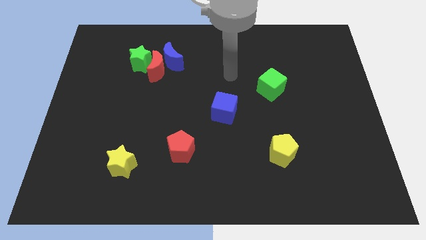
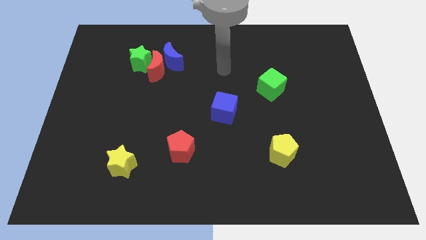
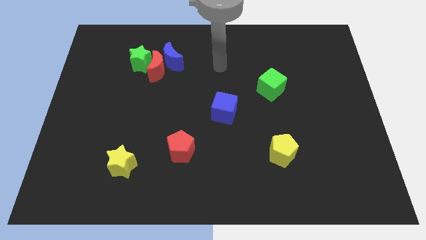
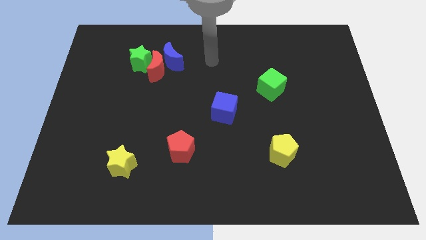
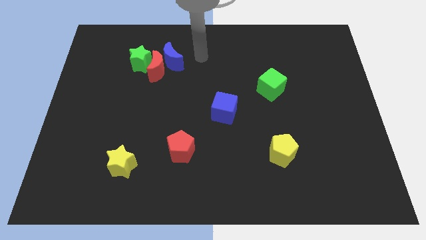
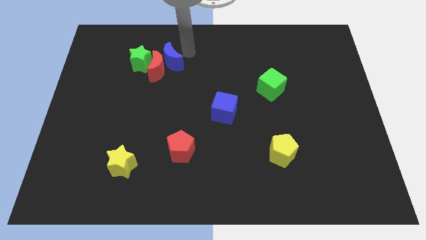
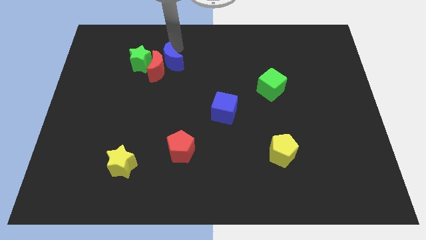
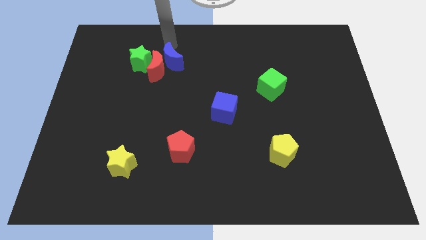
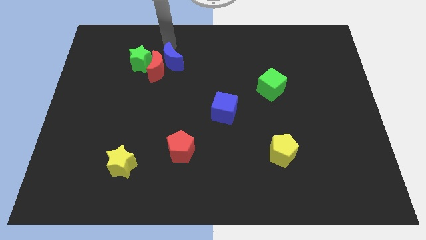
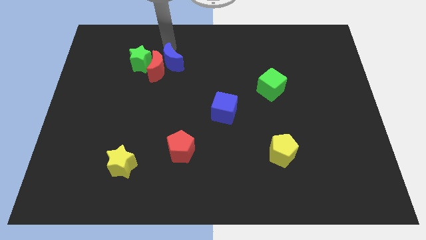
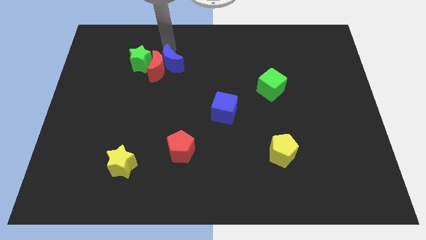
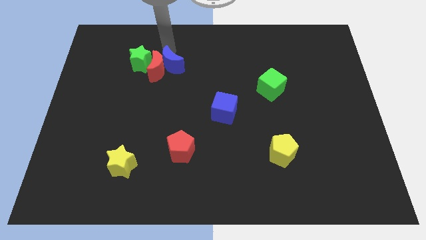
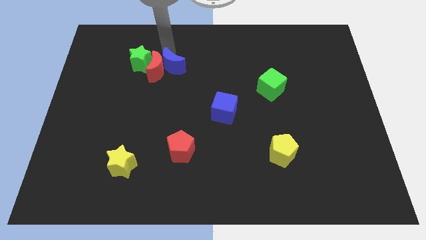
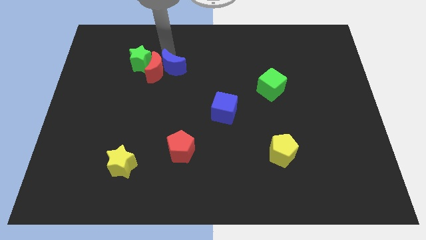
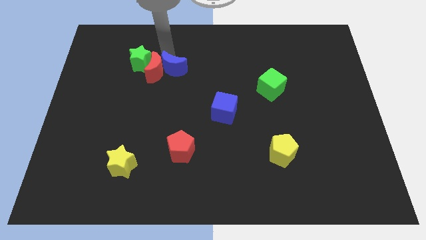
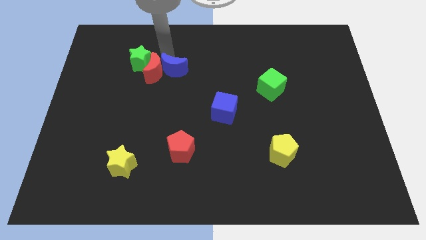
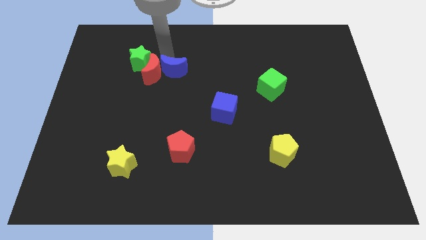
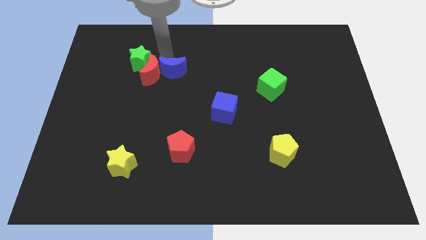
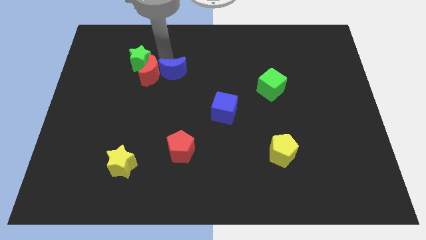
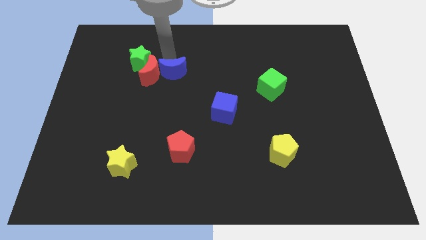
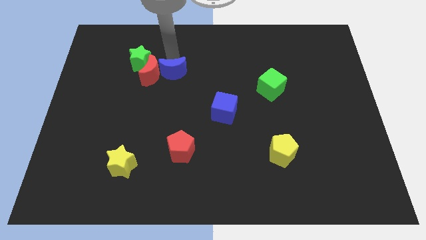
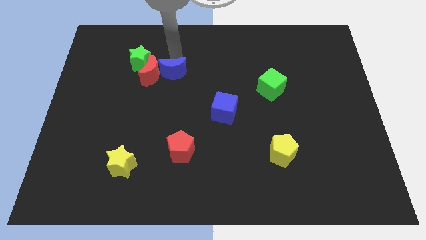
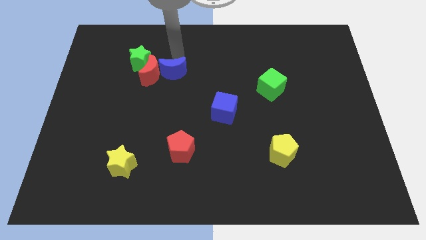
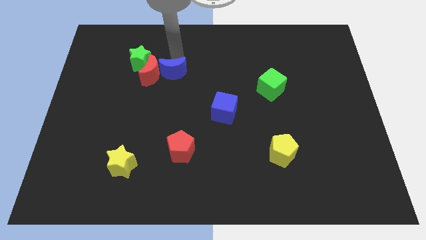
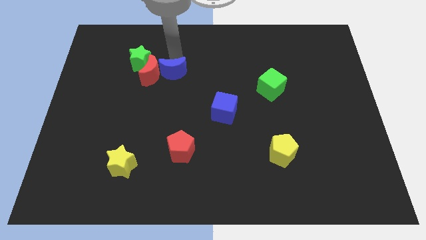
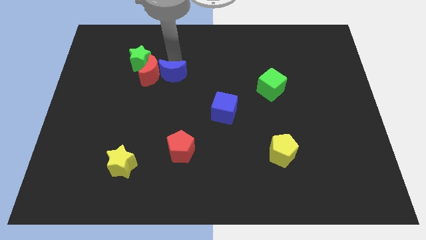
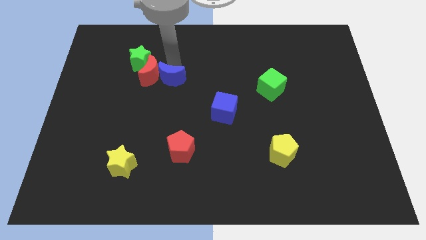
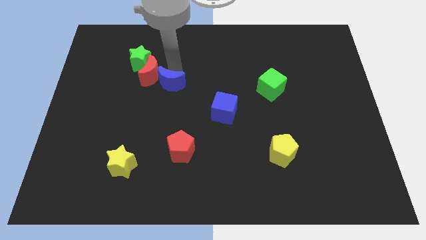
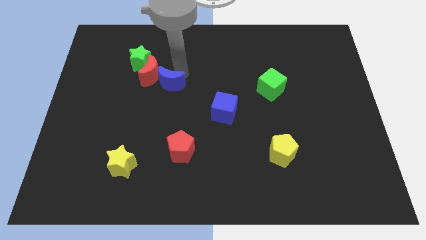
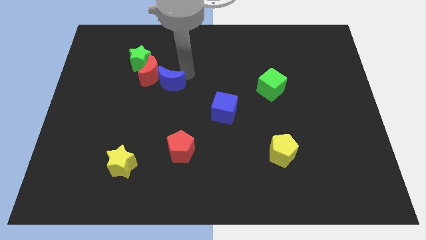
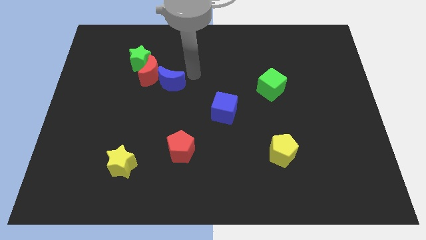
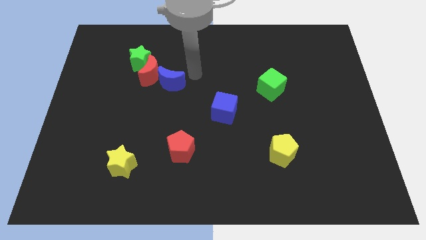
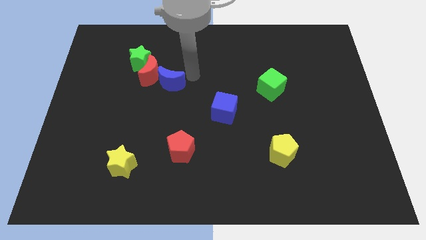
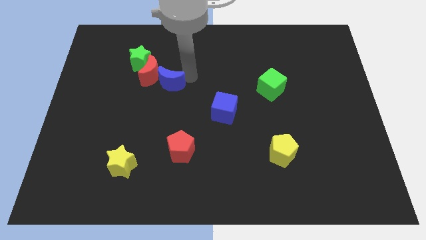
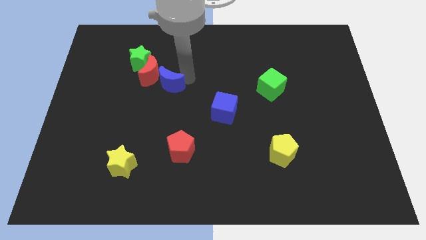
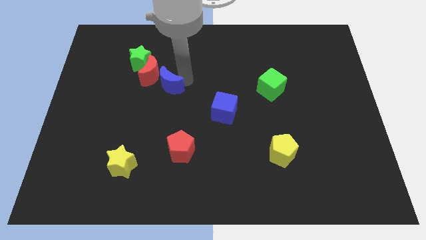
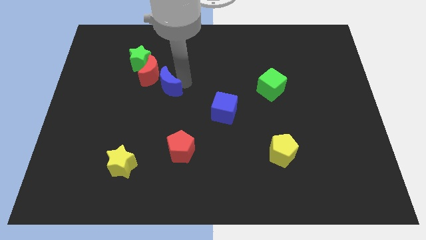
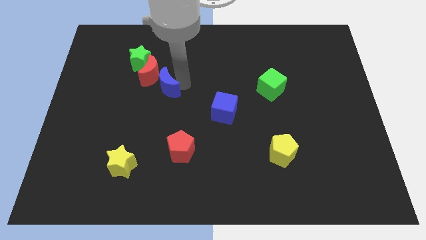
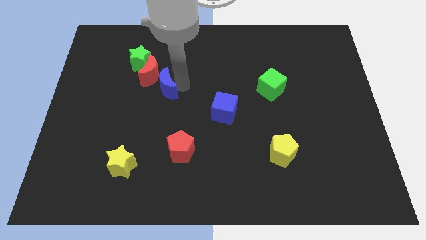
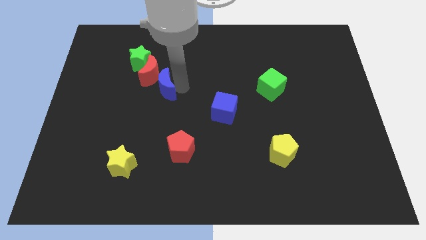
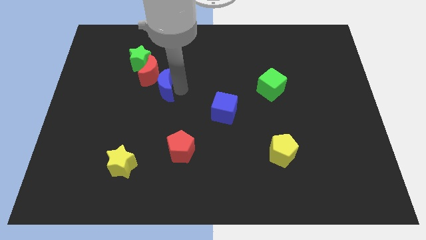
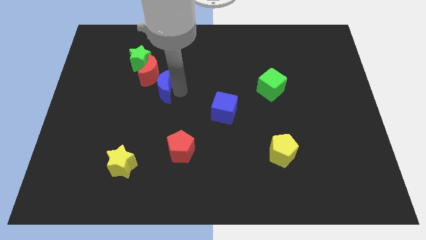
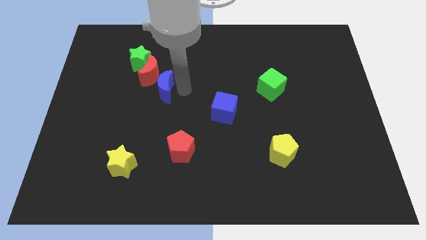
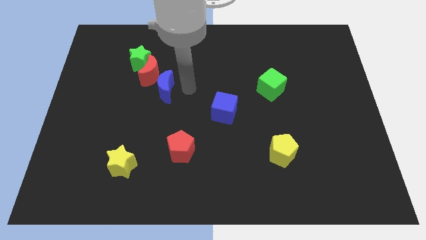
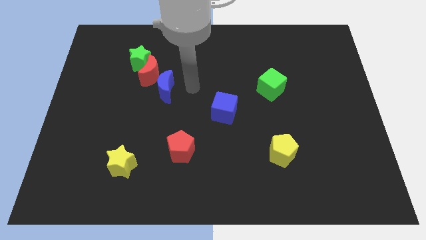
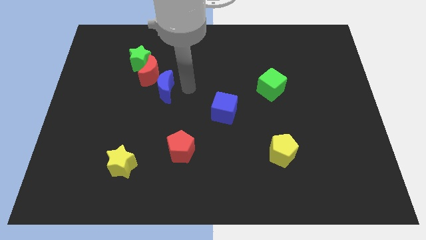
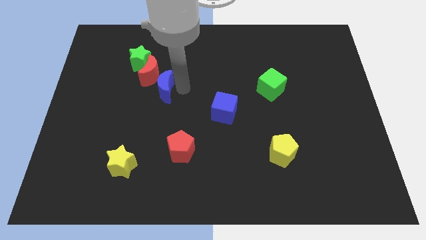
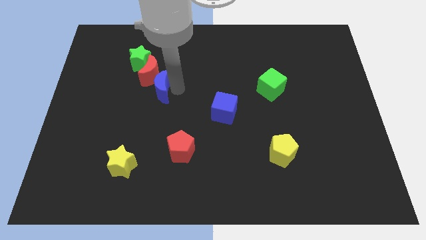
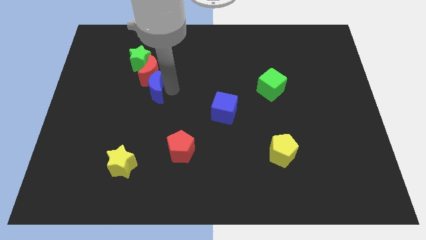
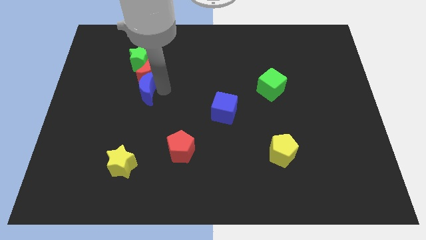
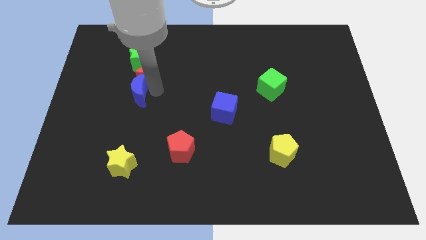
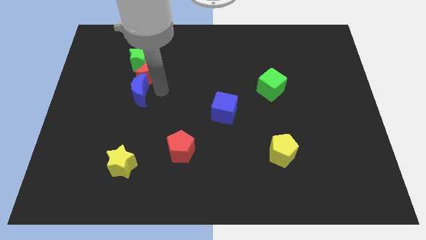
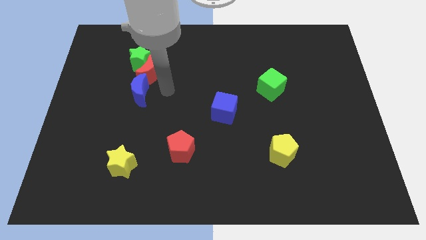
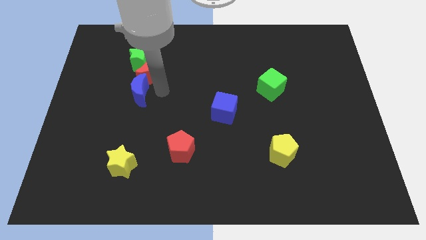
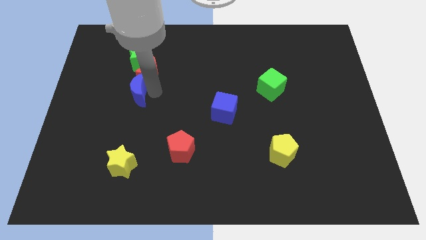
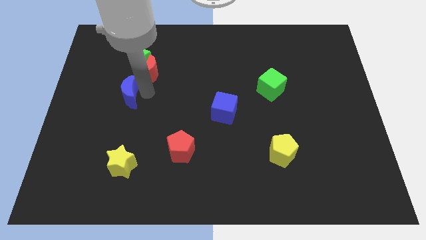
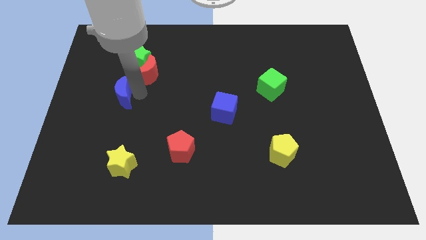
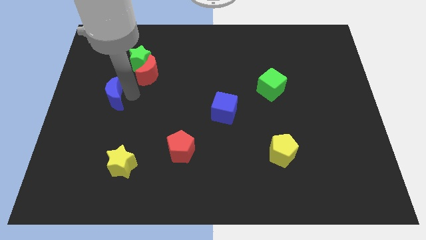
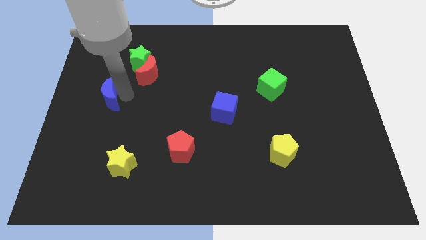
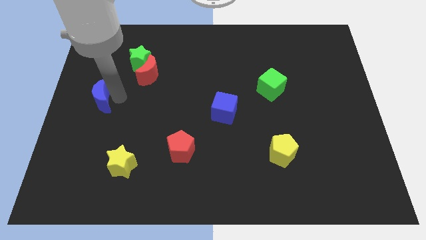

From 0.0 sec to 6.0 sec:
push the blue moon to the left side of the board
